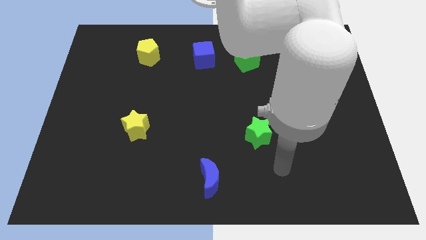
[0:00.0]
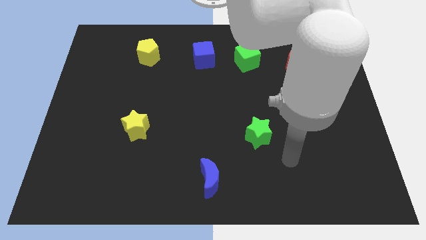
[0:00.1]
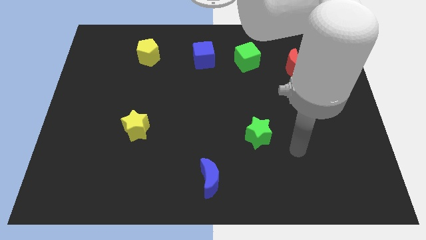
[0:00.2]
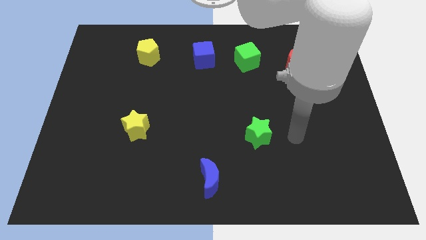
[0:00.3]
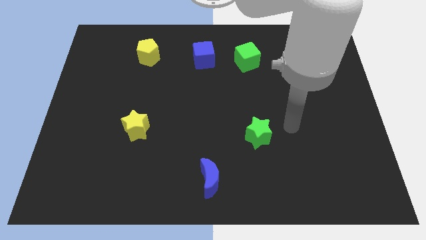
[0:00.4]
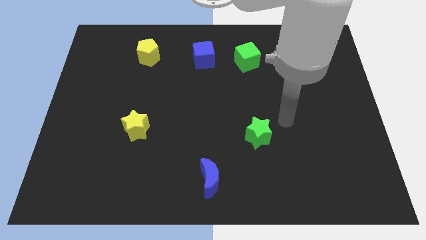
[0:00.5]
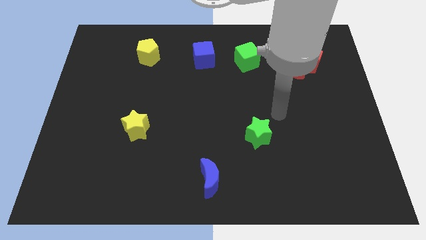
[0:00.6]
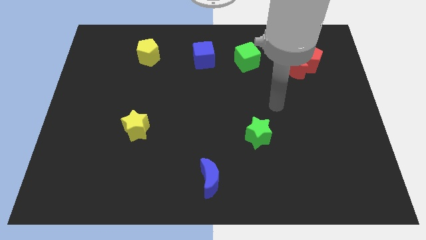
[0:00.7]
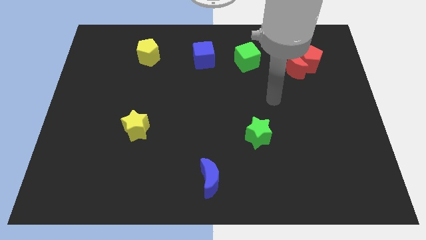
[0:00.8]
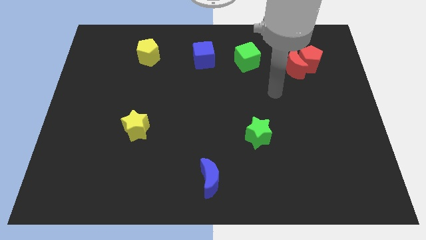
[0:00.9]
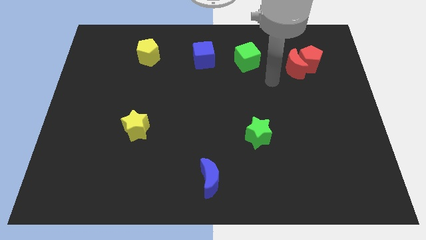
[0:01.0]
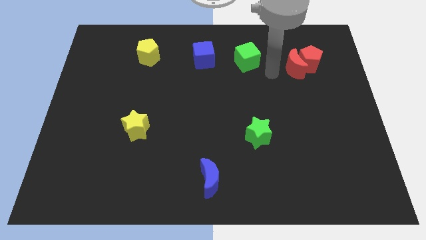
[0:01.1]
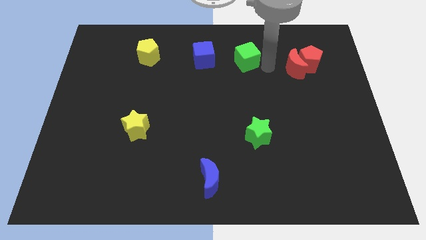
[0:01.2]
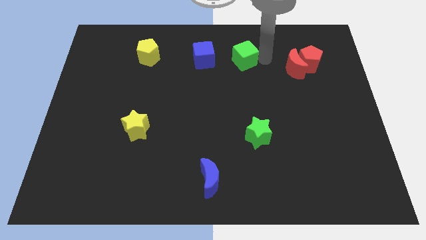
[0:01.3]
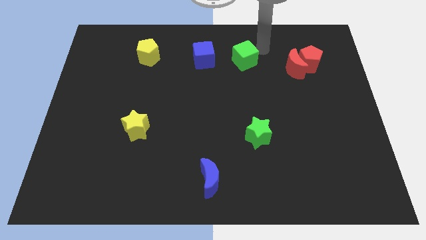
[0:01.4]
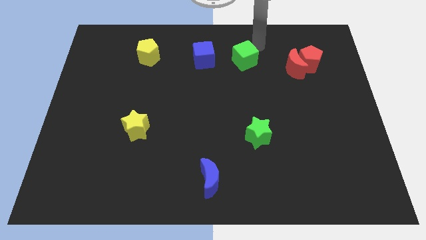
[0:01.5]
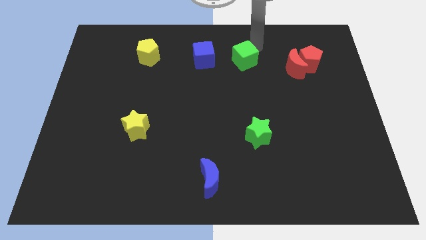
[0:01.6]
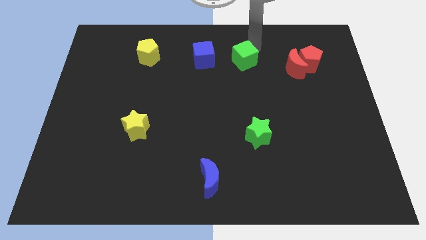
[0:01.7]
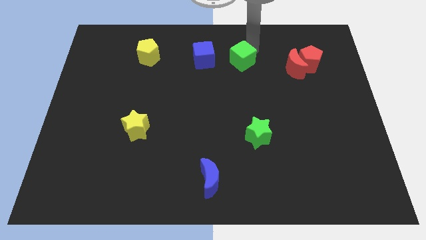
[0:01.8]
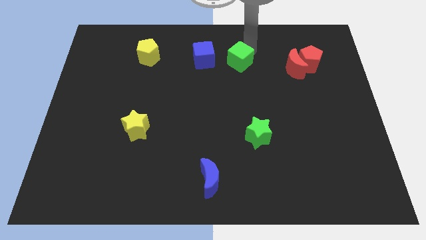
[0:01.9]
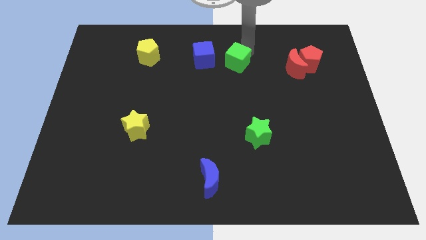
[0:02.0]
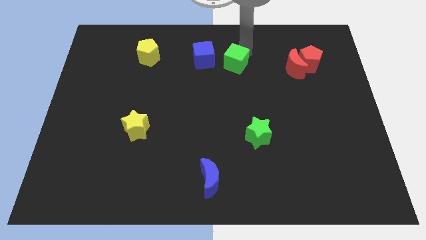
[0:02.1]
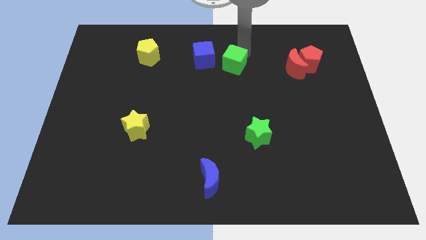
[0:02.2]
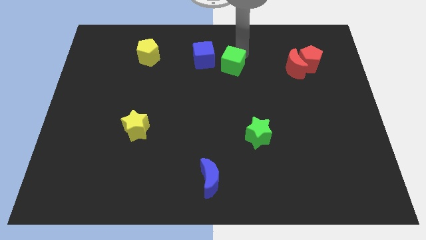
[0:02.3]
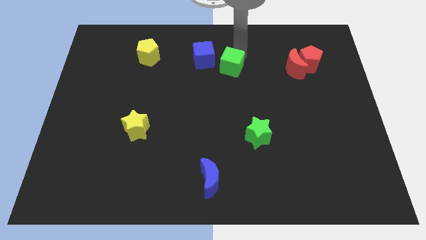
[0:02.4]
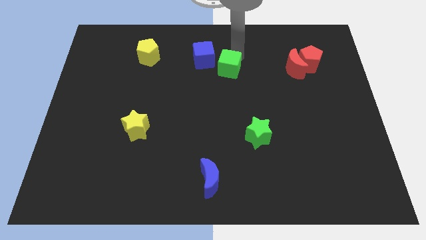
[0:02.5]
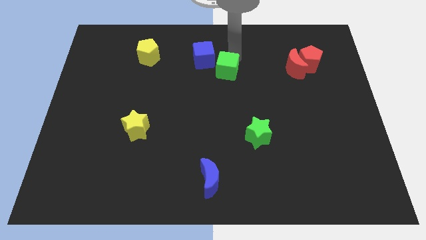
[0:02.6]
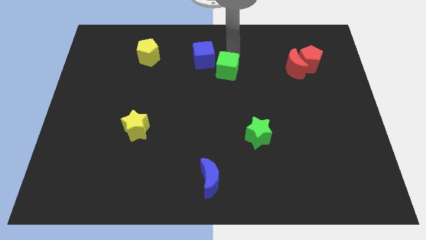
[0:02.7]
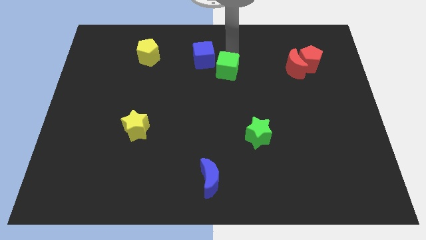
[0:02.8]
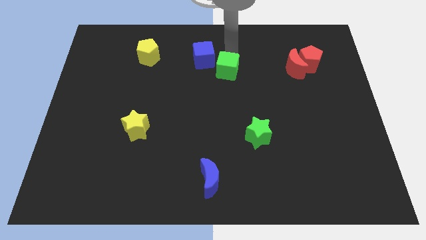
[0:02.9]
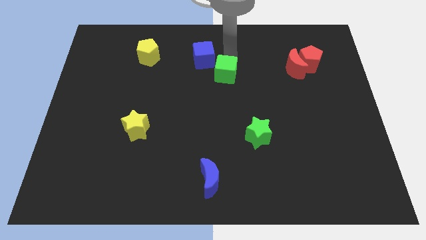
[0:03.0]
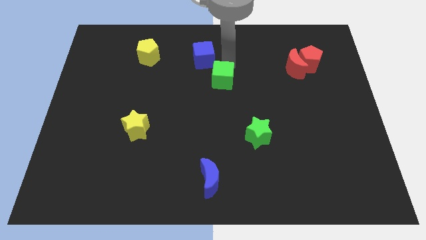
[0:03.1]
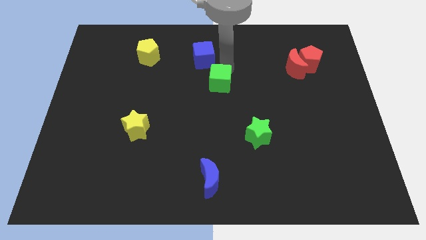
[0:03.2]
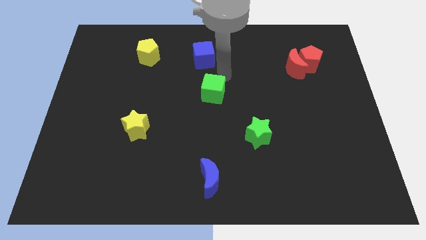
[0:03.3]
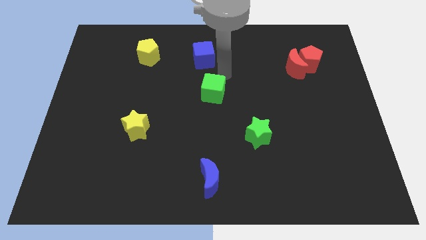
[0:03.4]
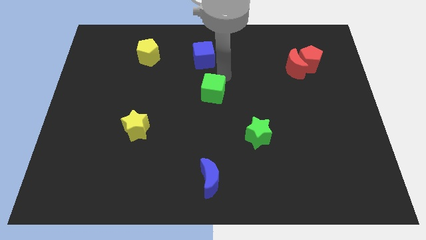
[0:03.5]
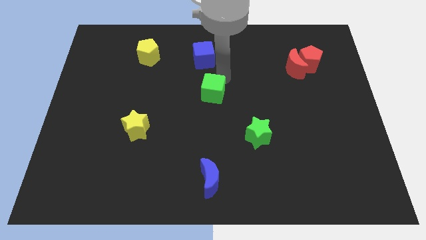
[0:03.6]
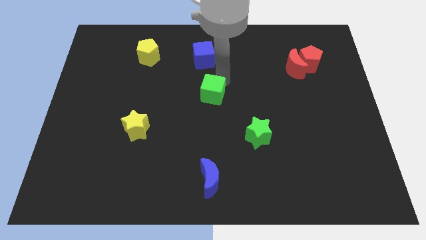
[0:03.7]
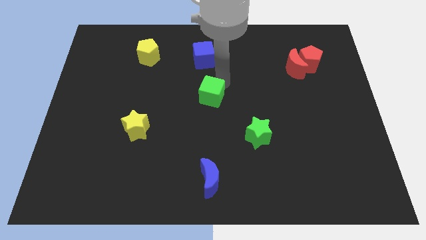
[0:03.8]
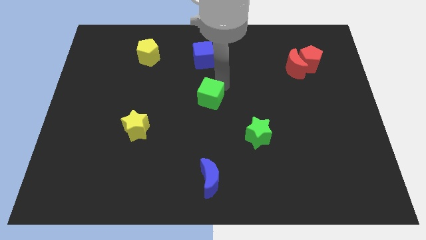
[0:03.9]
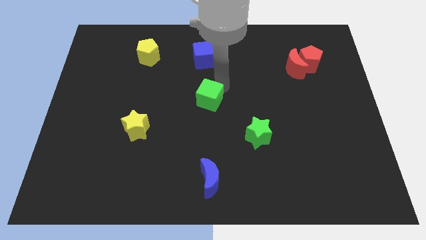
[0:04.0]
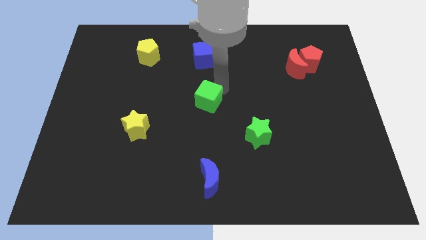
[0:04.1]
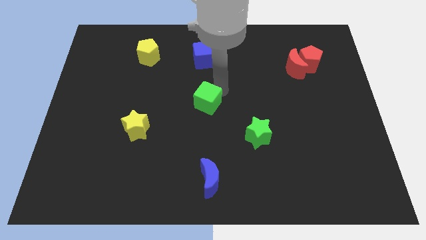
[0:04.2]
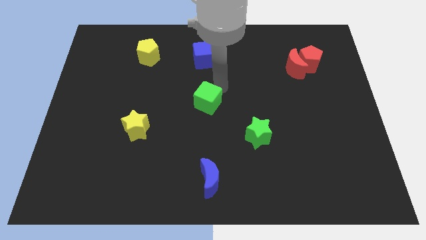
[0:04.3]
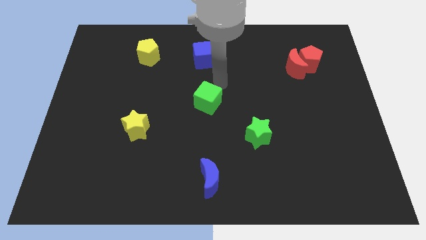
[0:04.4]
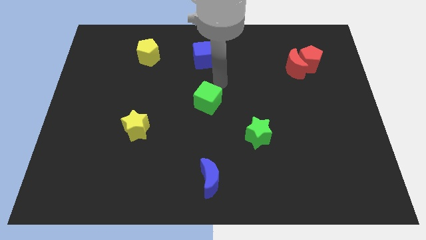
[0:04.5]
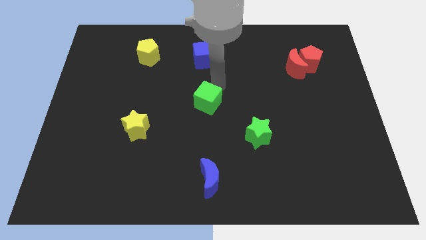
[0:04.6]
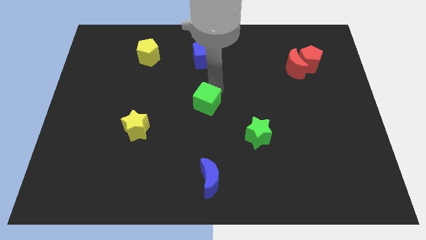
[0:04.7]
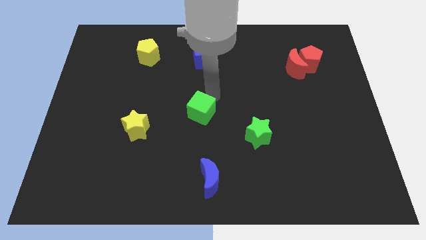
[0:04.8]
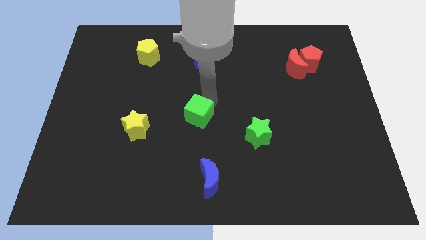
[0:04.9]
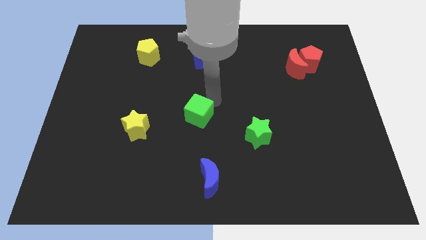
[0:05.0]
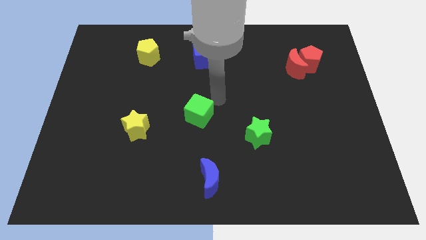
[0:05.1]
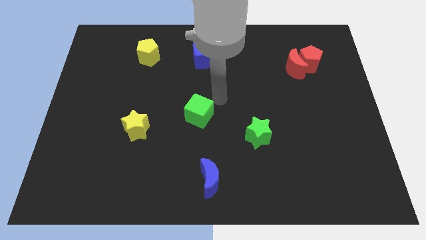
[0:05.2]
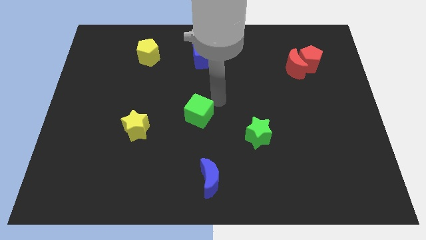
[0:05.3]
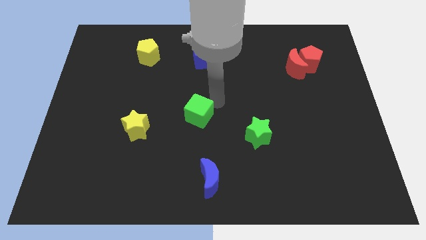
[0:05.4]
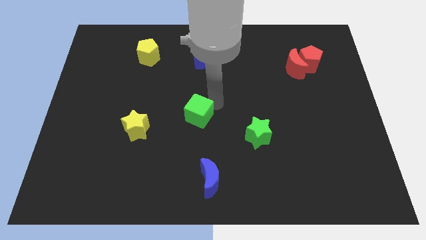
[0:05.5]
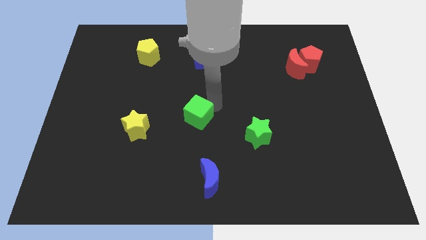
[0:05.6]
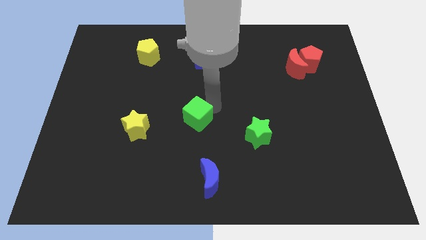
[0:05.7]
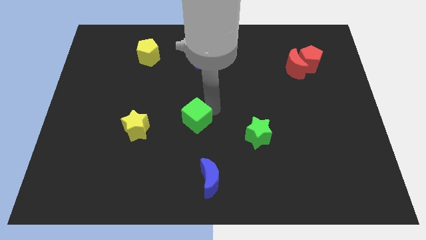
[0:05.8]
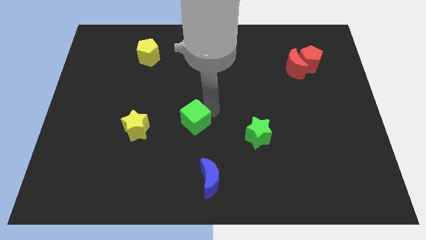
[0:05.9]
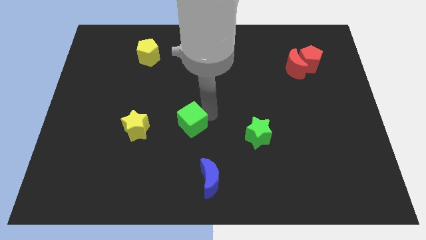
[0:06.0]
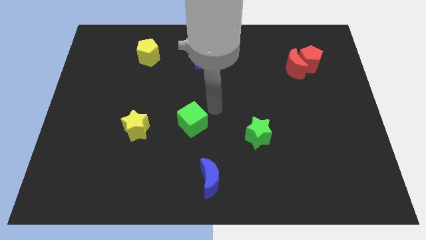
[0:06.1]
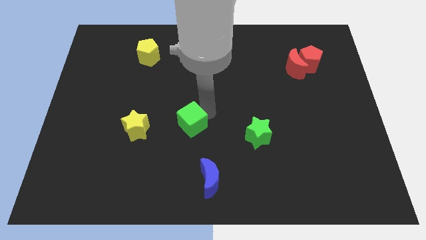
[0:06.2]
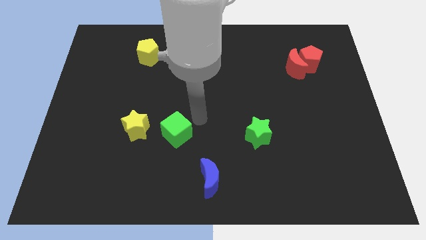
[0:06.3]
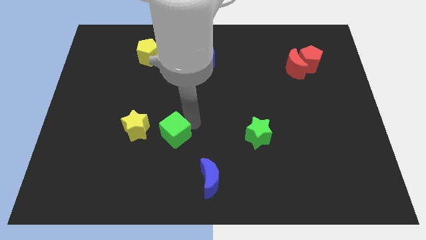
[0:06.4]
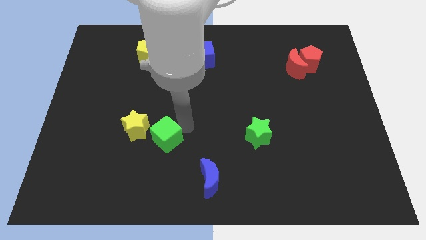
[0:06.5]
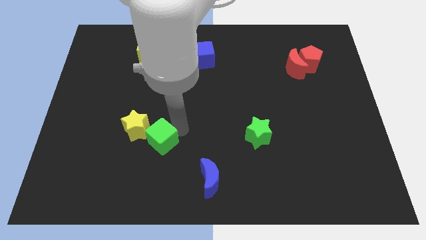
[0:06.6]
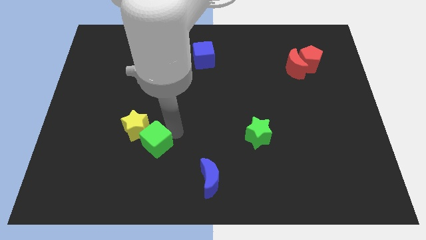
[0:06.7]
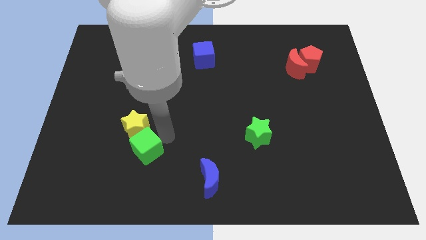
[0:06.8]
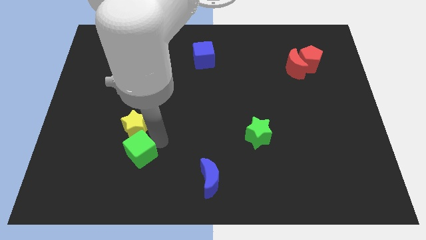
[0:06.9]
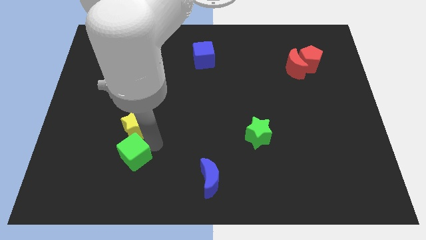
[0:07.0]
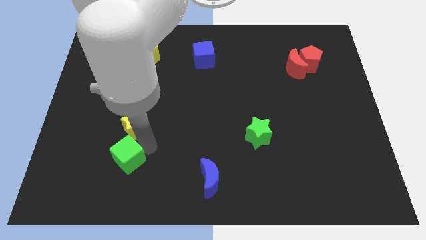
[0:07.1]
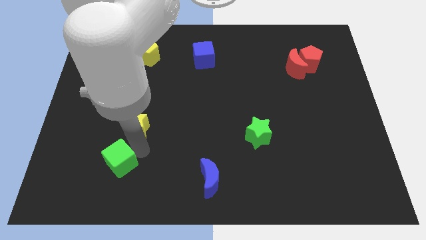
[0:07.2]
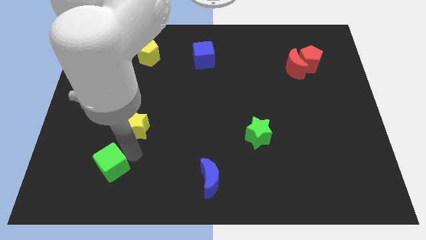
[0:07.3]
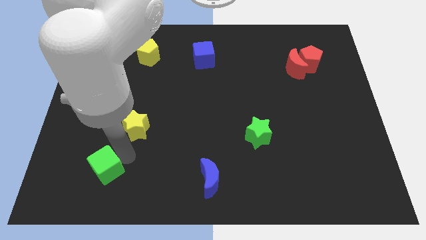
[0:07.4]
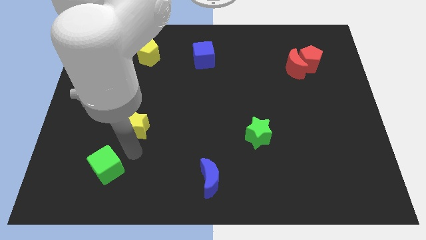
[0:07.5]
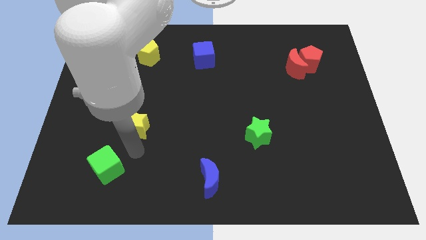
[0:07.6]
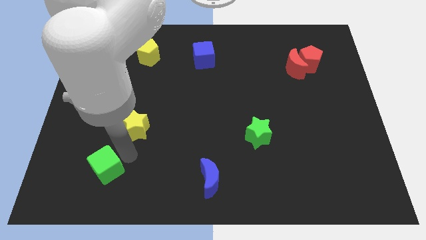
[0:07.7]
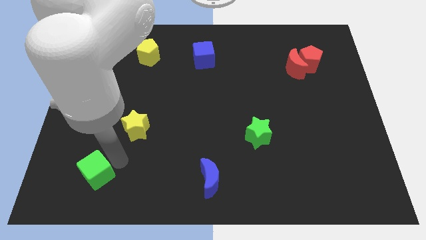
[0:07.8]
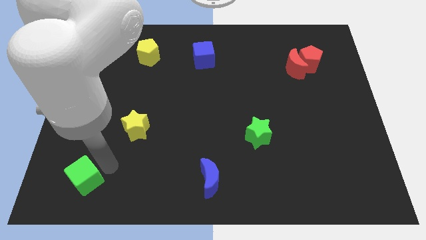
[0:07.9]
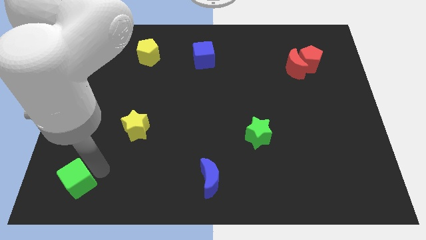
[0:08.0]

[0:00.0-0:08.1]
push the green cube to the bottom left corner
